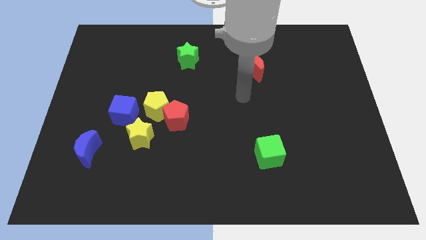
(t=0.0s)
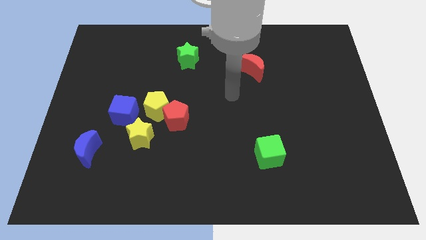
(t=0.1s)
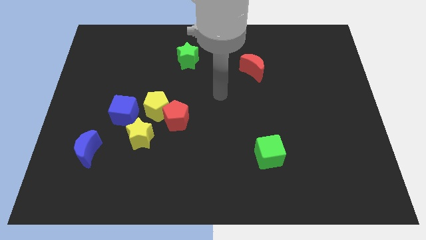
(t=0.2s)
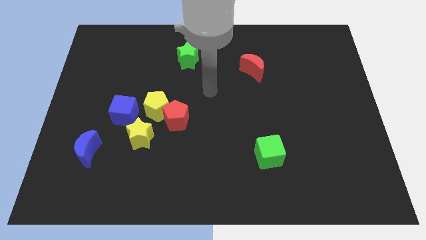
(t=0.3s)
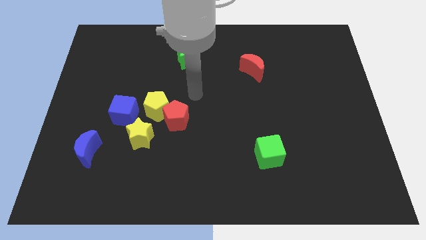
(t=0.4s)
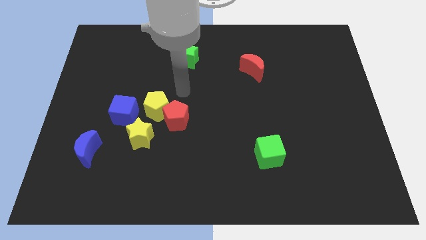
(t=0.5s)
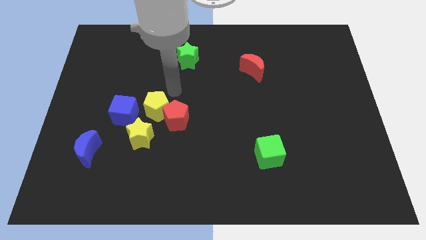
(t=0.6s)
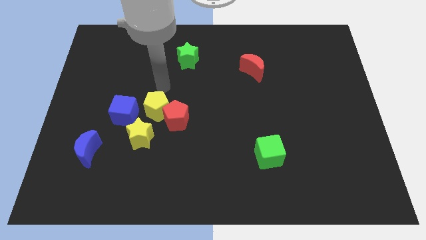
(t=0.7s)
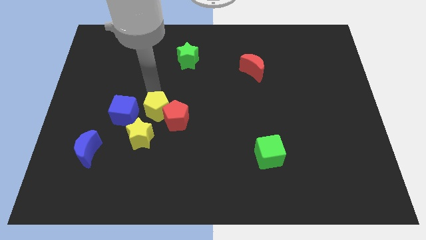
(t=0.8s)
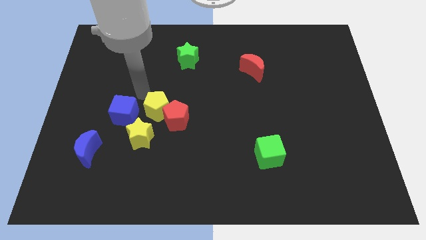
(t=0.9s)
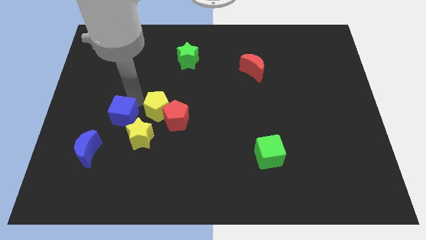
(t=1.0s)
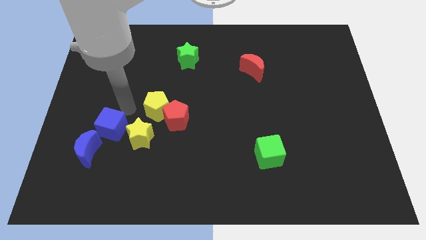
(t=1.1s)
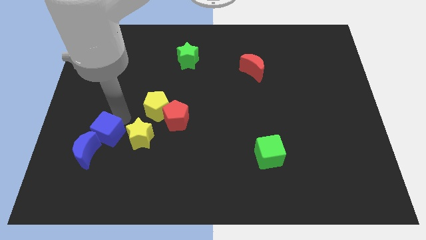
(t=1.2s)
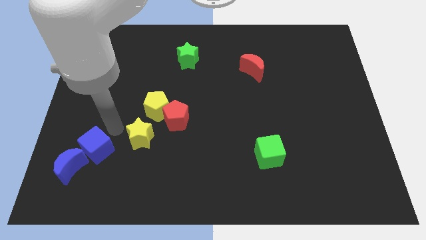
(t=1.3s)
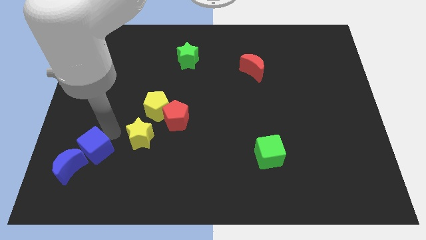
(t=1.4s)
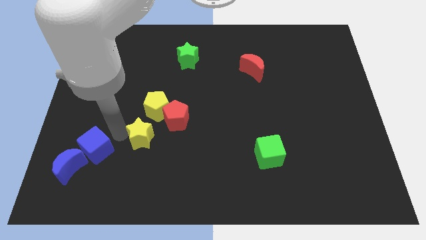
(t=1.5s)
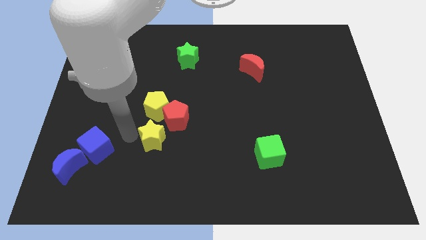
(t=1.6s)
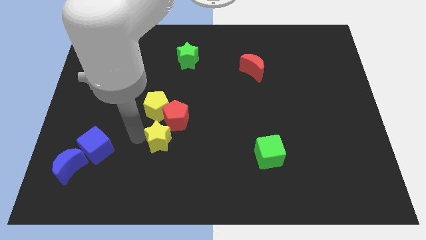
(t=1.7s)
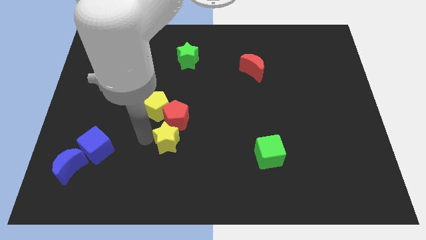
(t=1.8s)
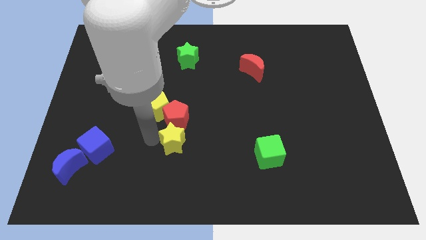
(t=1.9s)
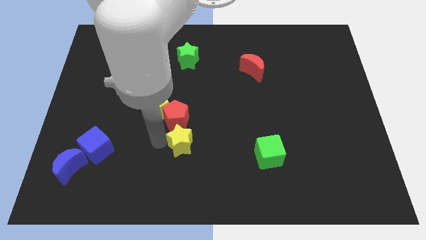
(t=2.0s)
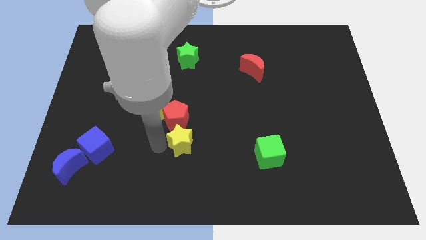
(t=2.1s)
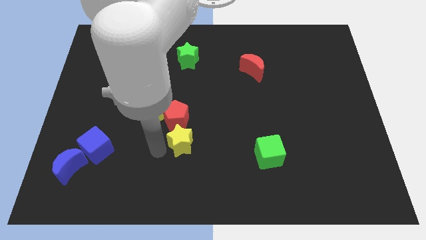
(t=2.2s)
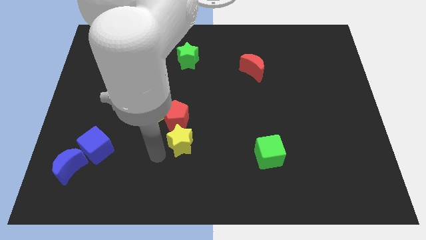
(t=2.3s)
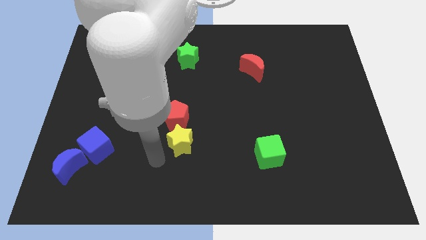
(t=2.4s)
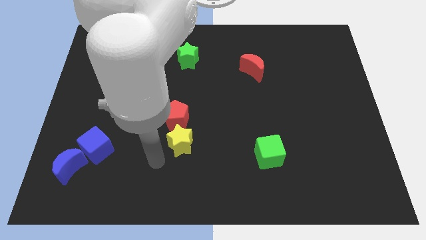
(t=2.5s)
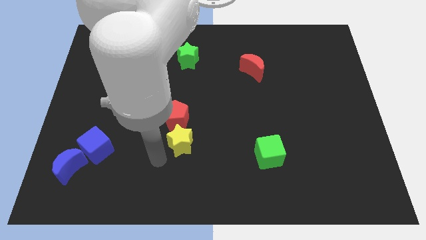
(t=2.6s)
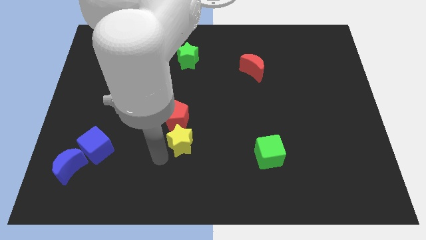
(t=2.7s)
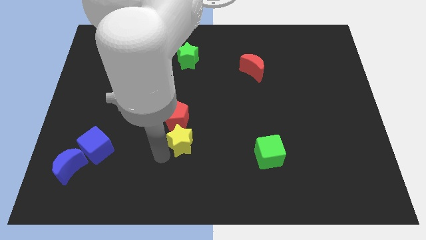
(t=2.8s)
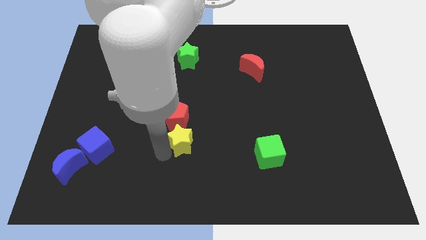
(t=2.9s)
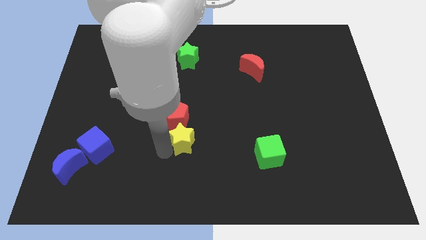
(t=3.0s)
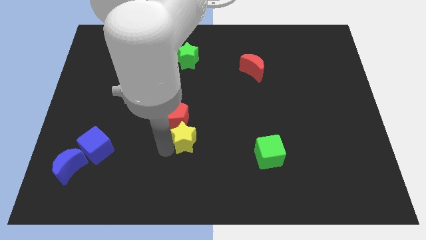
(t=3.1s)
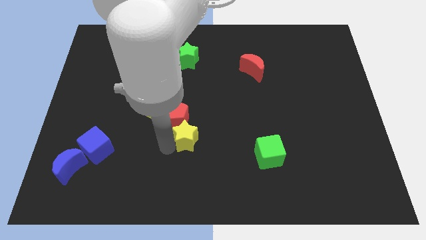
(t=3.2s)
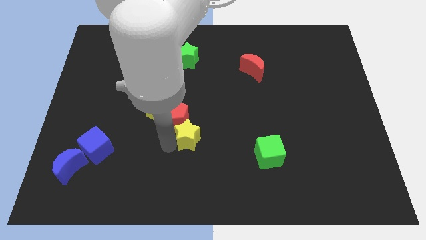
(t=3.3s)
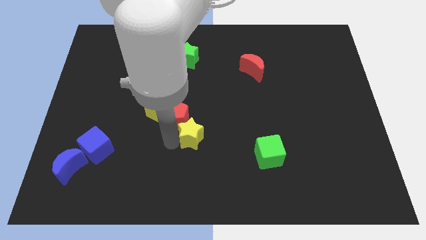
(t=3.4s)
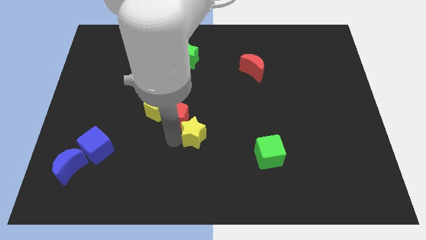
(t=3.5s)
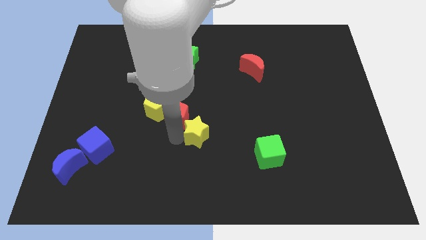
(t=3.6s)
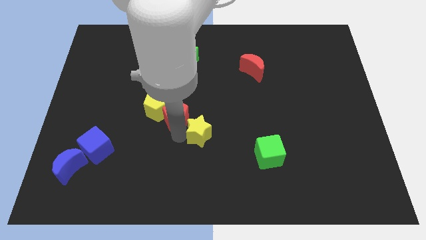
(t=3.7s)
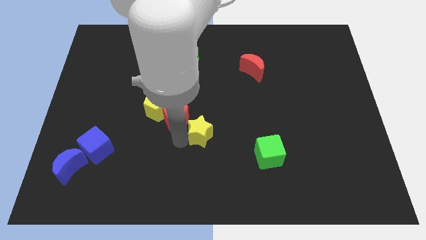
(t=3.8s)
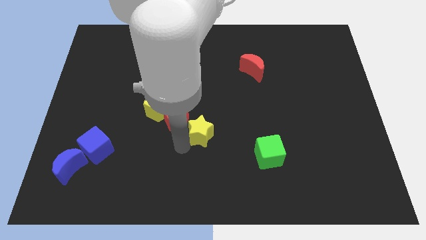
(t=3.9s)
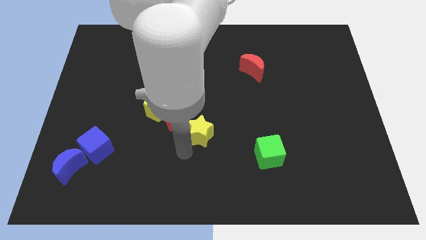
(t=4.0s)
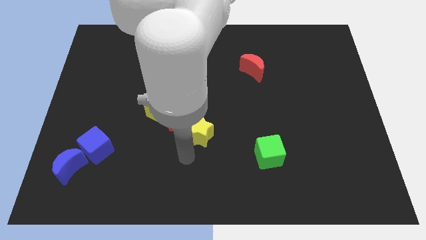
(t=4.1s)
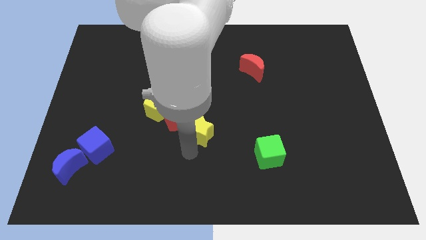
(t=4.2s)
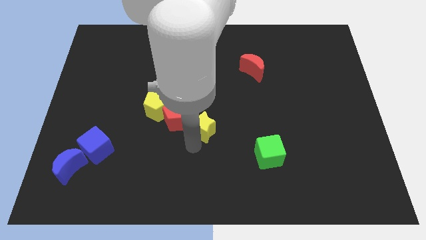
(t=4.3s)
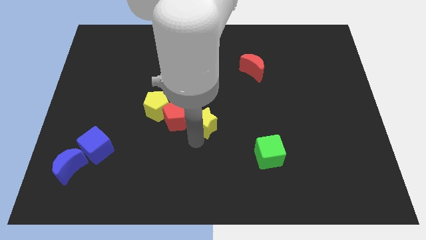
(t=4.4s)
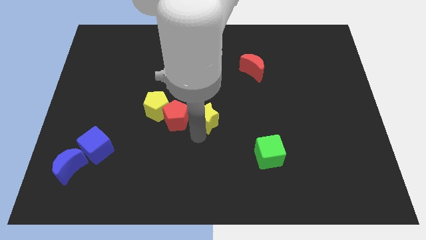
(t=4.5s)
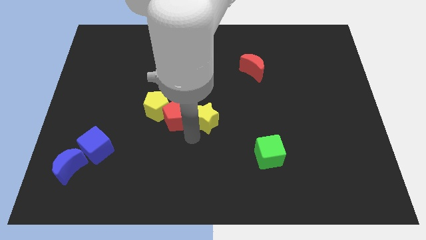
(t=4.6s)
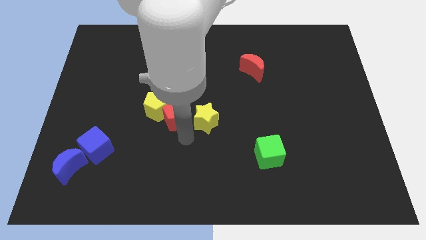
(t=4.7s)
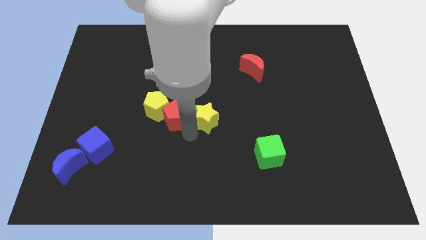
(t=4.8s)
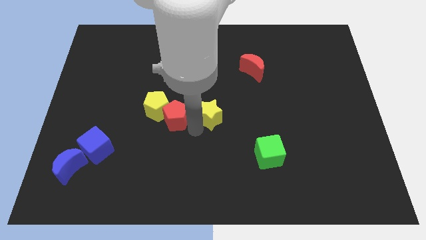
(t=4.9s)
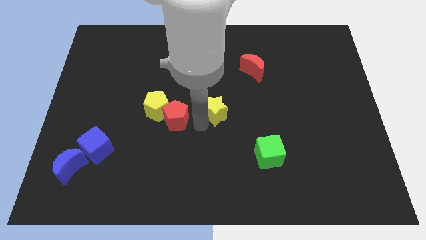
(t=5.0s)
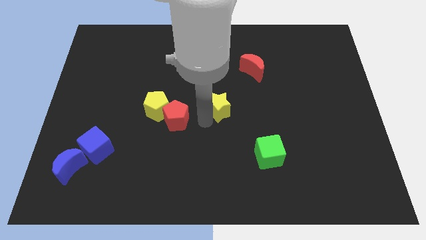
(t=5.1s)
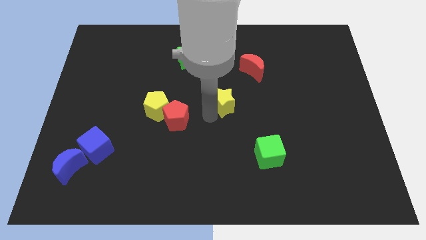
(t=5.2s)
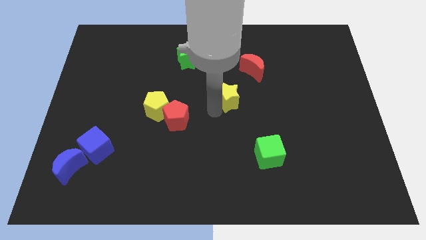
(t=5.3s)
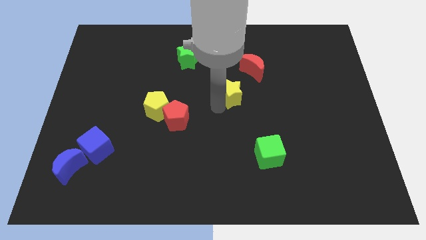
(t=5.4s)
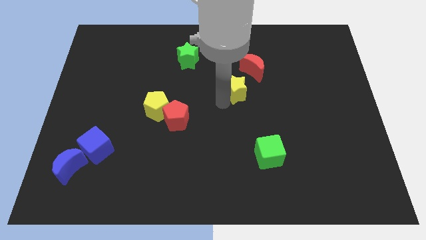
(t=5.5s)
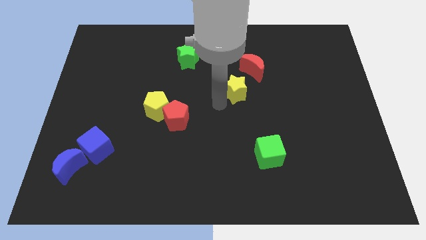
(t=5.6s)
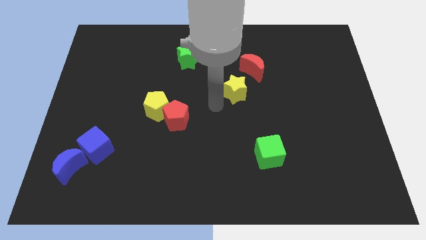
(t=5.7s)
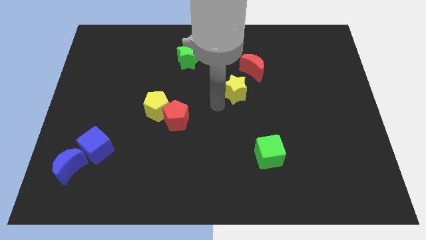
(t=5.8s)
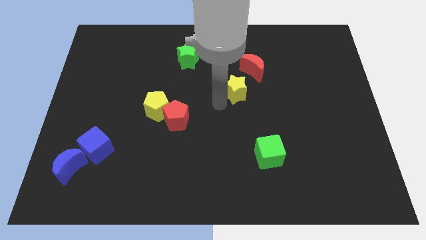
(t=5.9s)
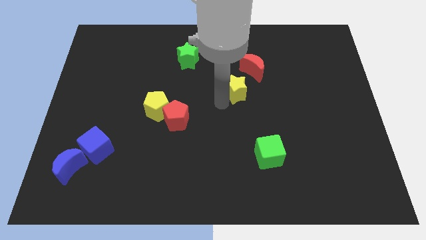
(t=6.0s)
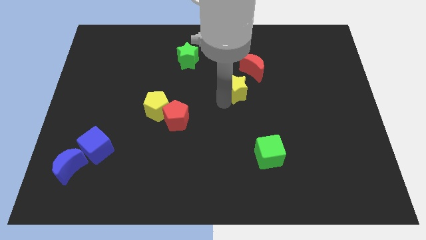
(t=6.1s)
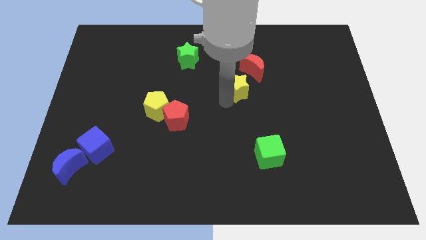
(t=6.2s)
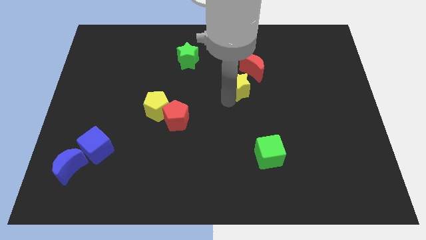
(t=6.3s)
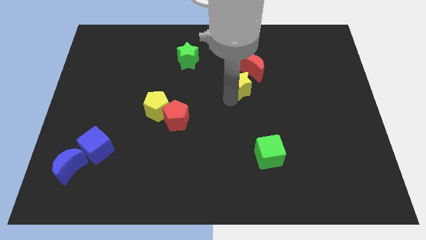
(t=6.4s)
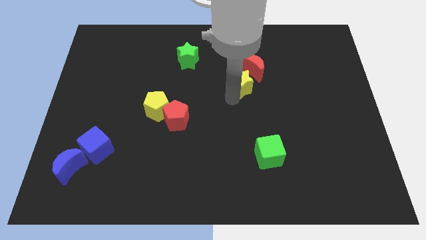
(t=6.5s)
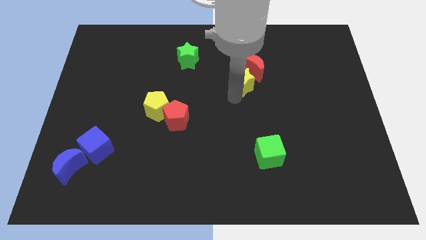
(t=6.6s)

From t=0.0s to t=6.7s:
move the yellow star to the red moon

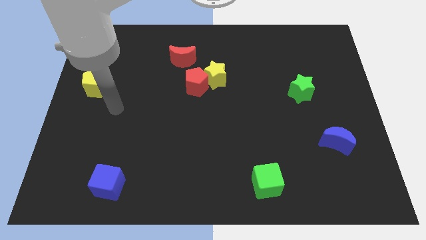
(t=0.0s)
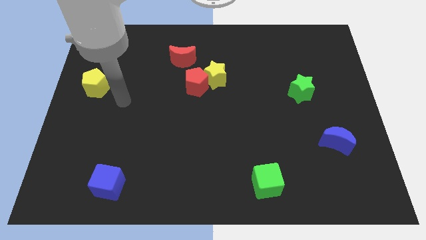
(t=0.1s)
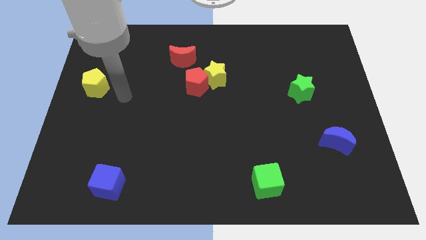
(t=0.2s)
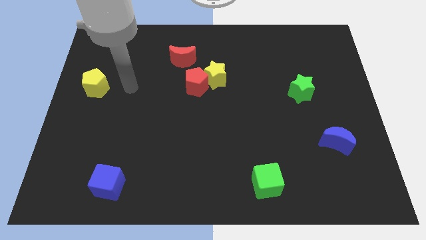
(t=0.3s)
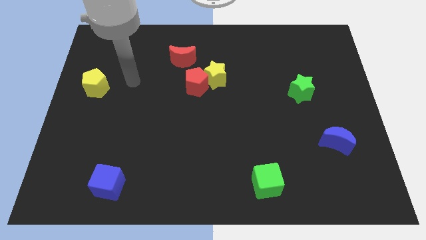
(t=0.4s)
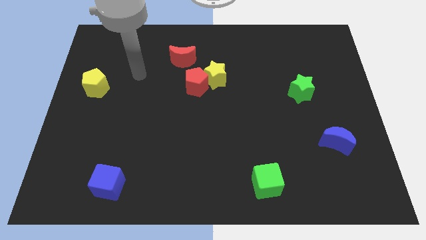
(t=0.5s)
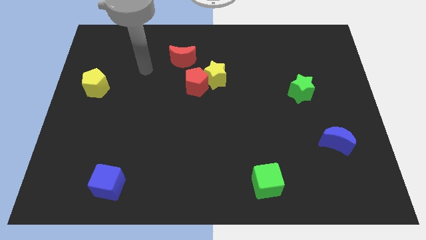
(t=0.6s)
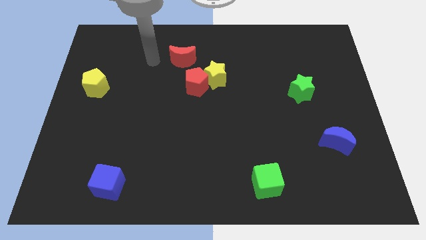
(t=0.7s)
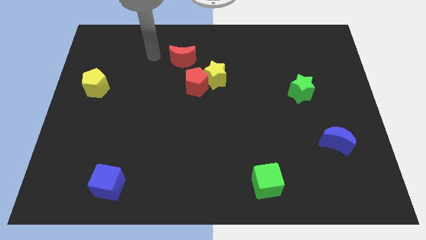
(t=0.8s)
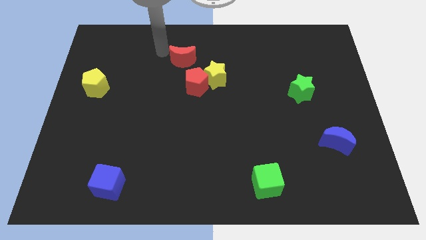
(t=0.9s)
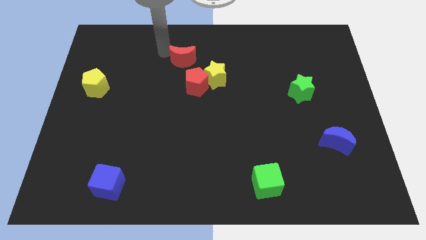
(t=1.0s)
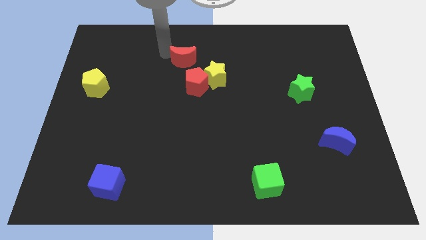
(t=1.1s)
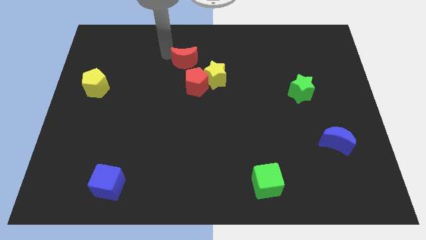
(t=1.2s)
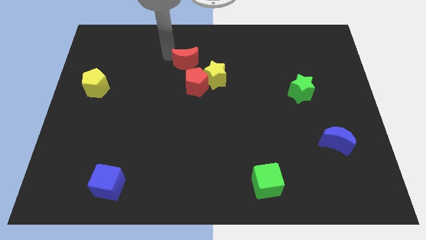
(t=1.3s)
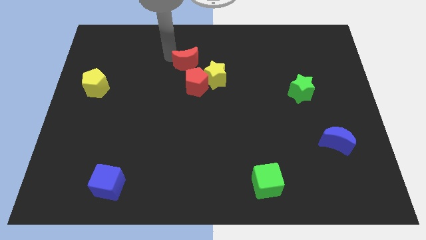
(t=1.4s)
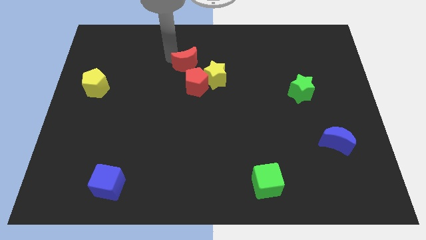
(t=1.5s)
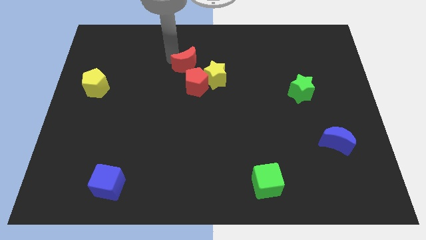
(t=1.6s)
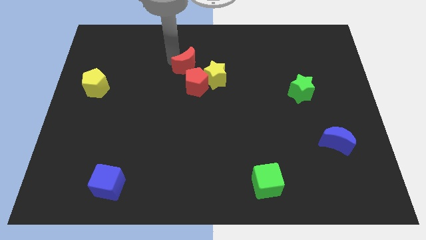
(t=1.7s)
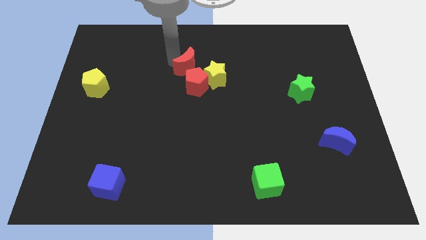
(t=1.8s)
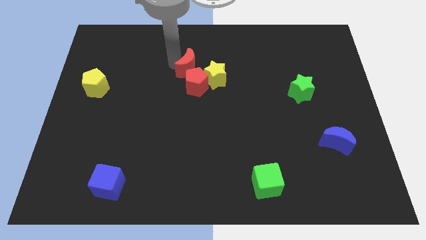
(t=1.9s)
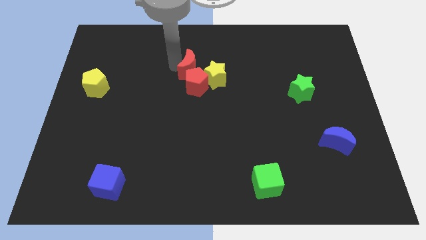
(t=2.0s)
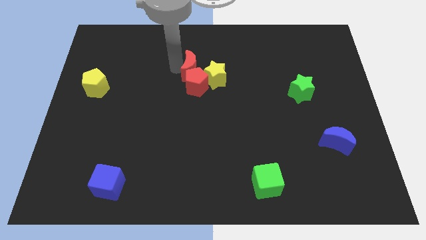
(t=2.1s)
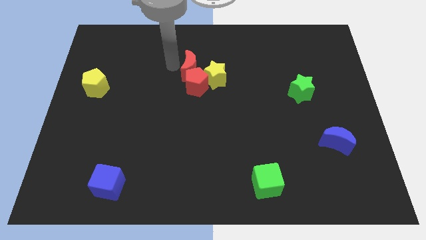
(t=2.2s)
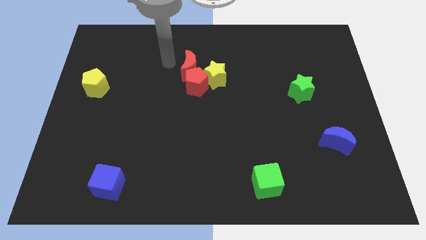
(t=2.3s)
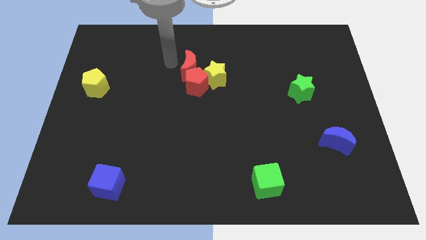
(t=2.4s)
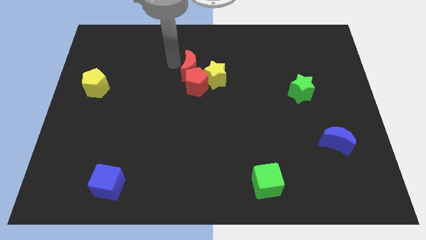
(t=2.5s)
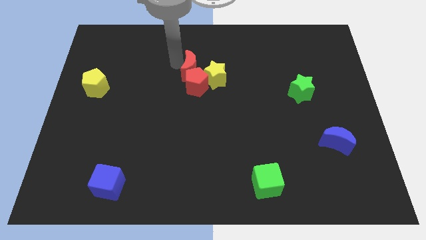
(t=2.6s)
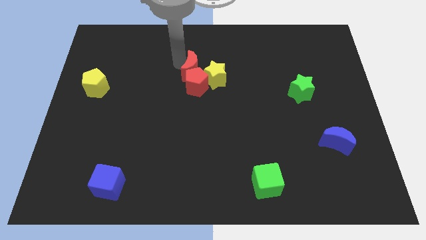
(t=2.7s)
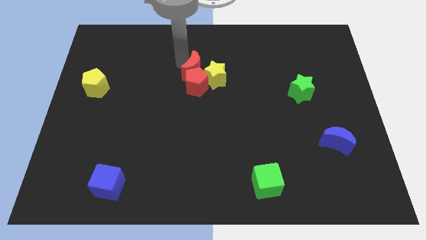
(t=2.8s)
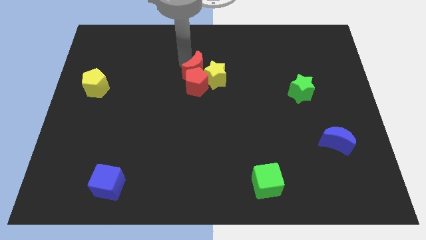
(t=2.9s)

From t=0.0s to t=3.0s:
move the red moon close to the yellow star
